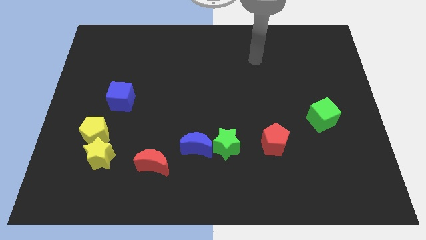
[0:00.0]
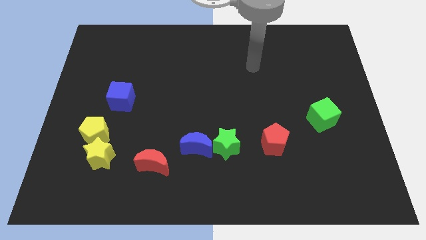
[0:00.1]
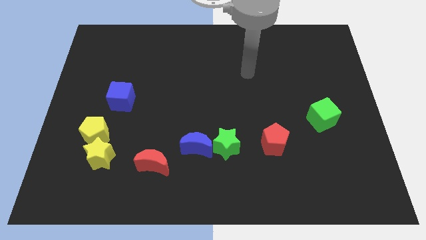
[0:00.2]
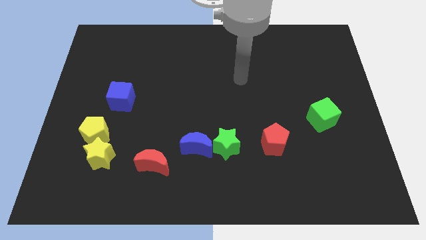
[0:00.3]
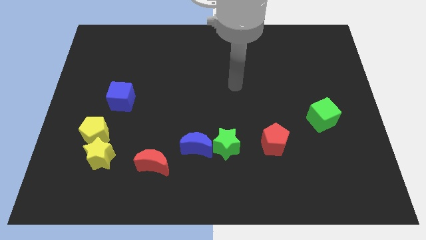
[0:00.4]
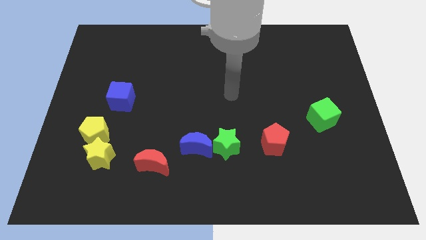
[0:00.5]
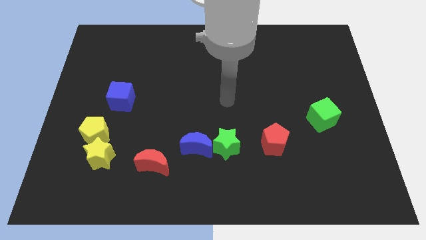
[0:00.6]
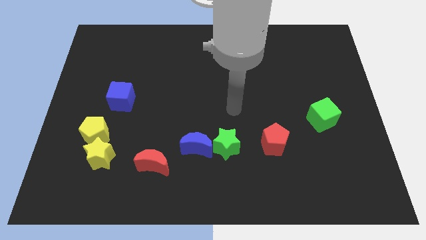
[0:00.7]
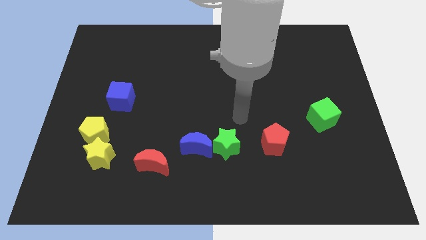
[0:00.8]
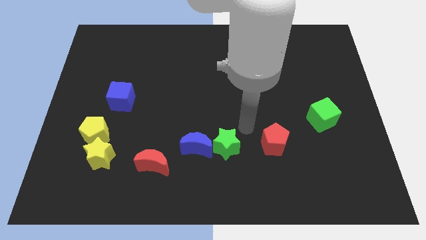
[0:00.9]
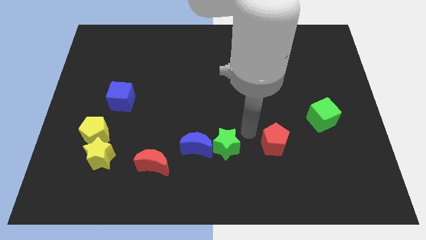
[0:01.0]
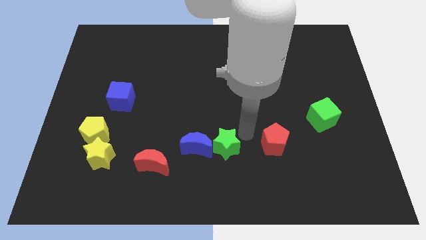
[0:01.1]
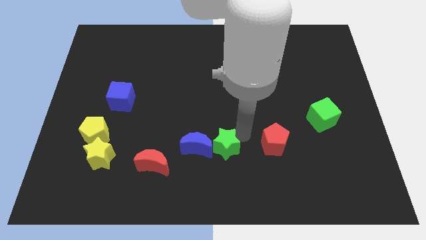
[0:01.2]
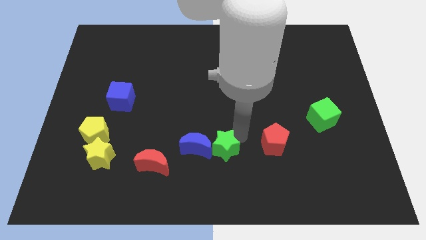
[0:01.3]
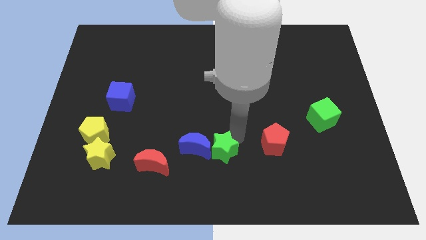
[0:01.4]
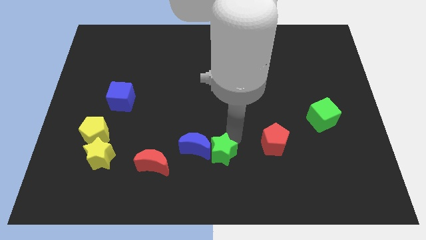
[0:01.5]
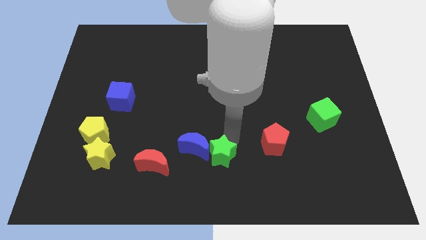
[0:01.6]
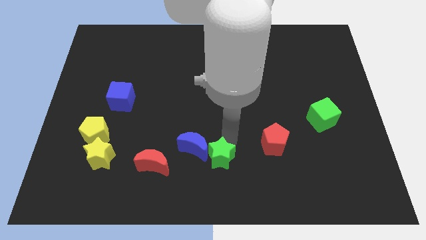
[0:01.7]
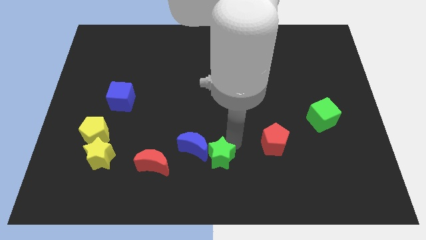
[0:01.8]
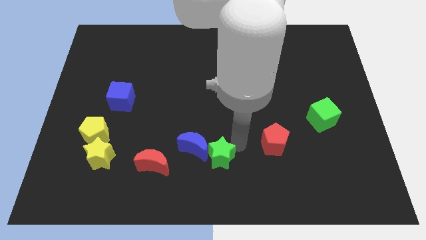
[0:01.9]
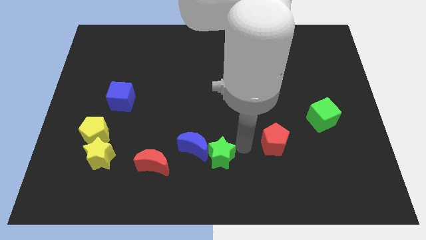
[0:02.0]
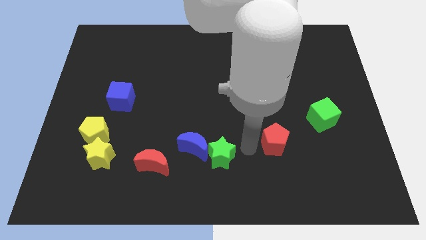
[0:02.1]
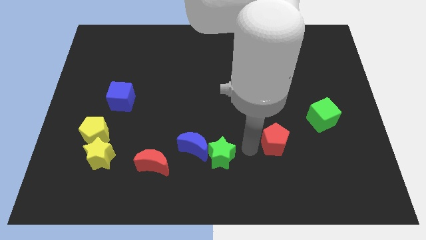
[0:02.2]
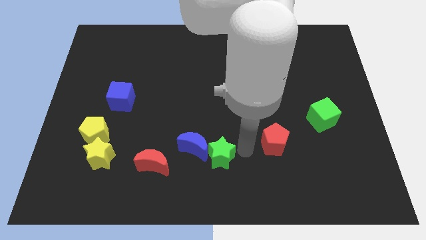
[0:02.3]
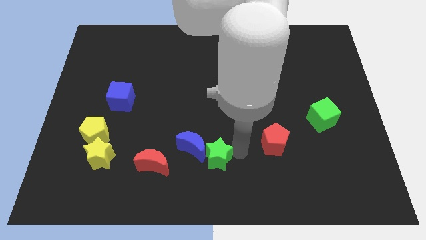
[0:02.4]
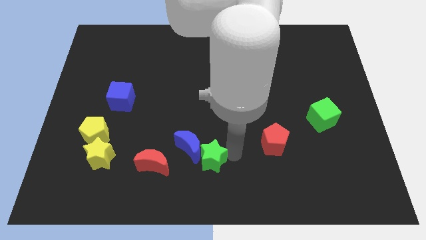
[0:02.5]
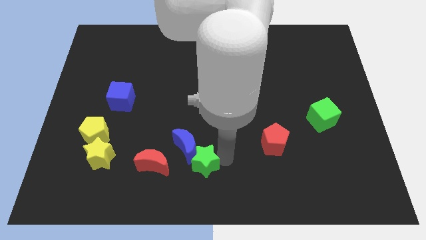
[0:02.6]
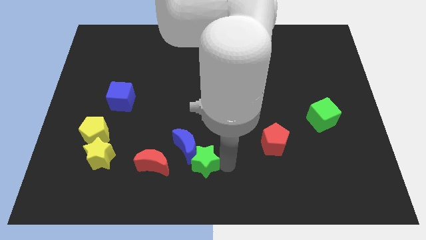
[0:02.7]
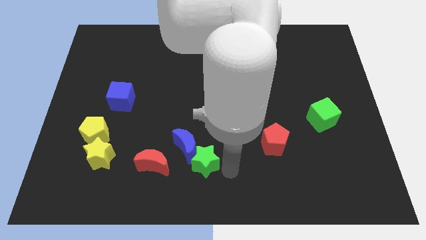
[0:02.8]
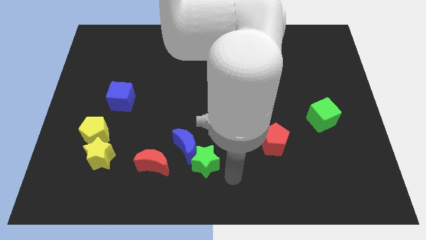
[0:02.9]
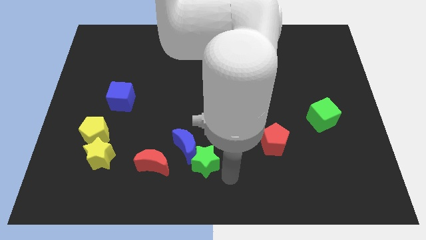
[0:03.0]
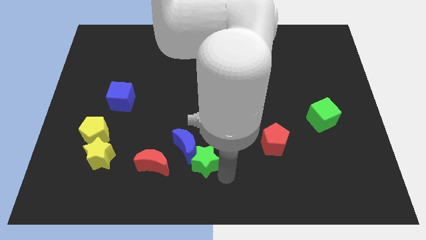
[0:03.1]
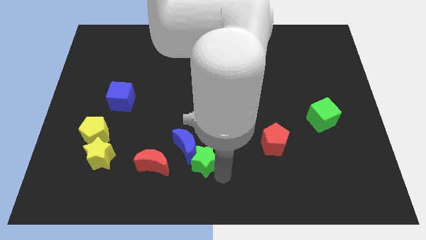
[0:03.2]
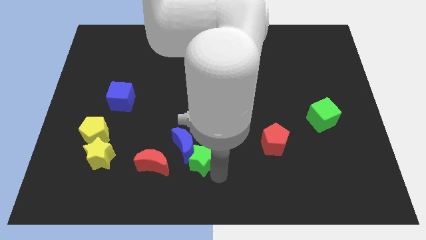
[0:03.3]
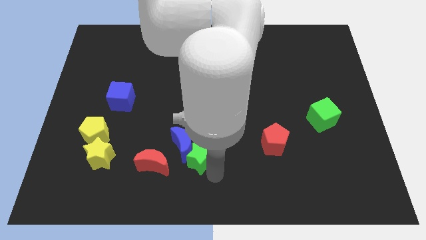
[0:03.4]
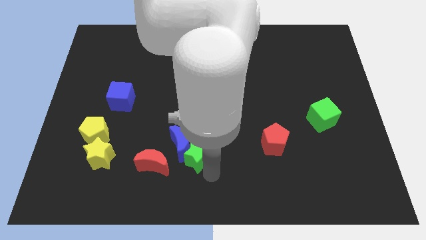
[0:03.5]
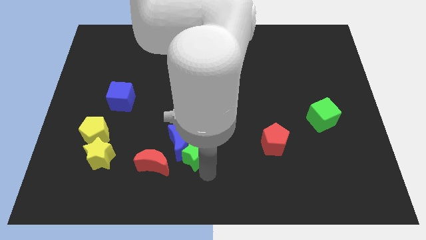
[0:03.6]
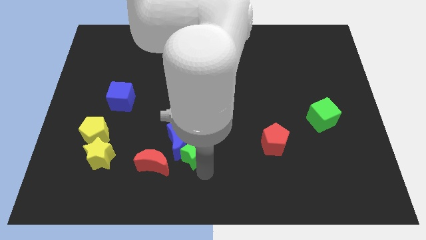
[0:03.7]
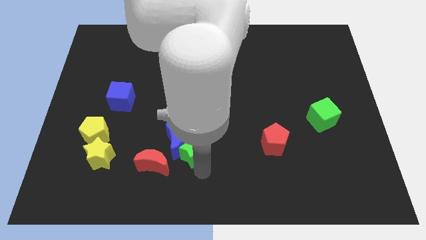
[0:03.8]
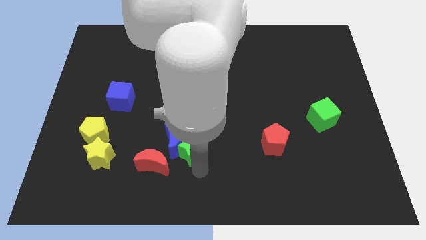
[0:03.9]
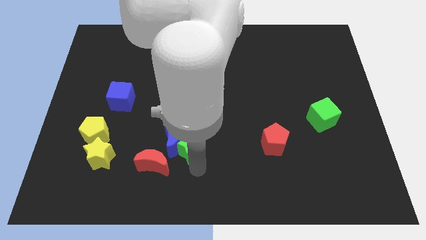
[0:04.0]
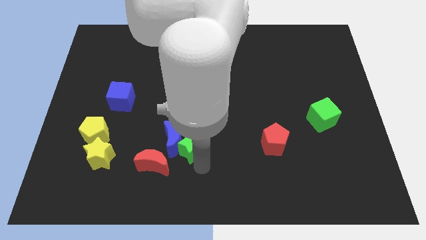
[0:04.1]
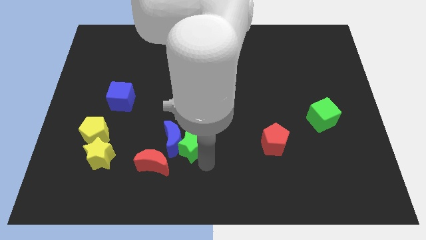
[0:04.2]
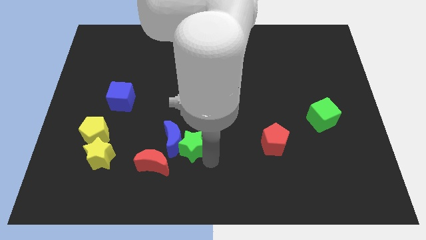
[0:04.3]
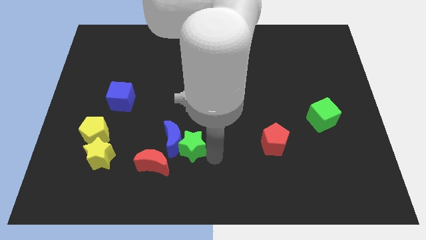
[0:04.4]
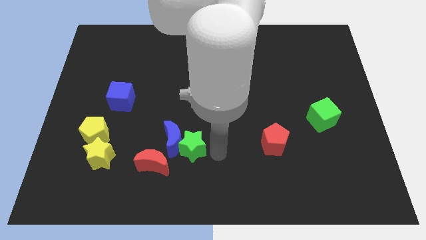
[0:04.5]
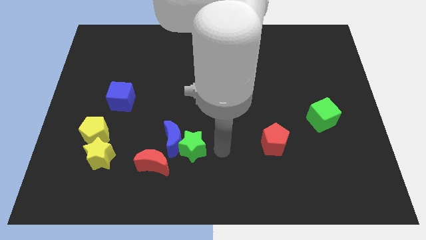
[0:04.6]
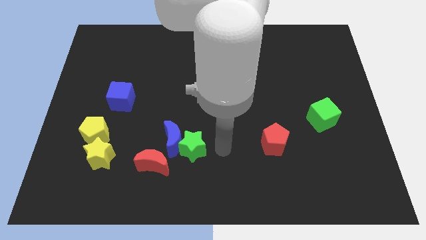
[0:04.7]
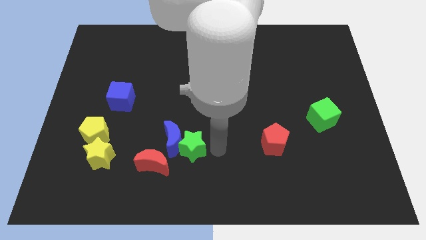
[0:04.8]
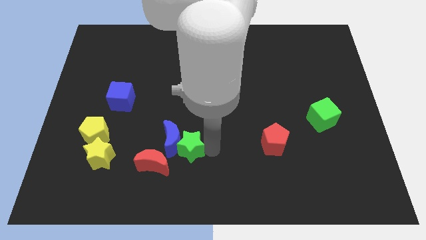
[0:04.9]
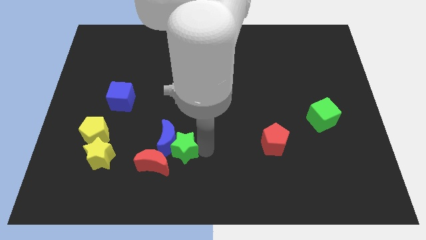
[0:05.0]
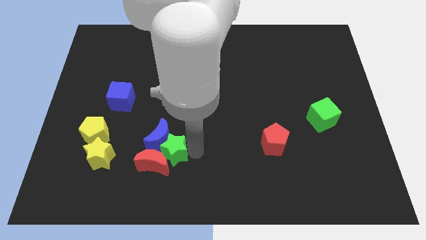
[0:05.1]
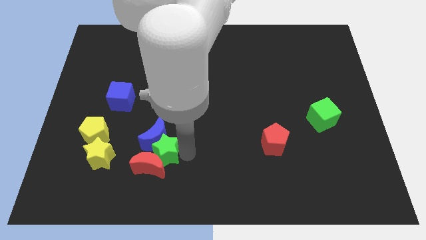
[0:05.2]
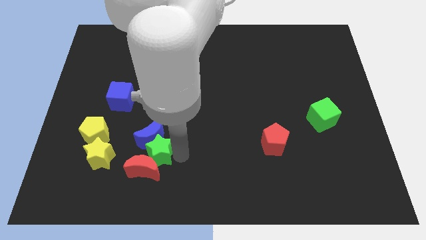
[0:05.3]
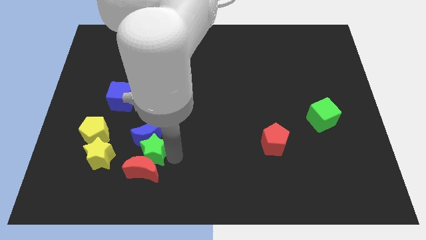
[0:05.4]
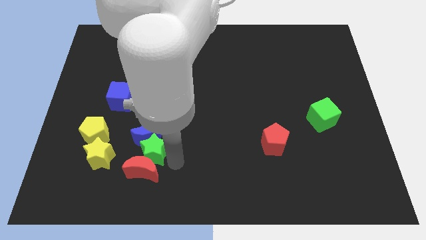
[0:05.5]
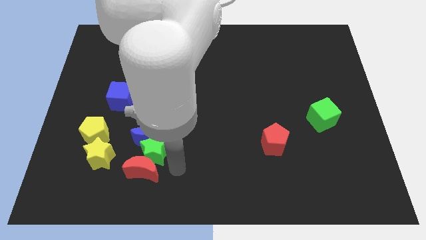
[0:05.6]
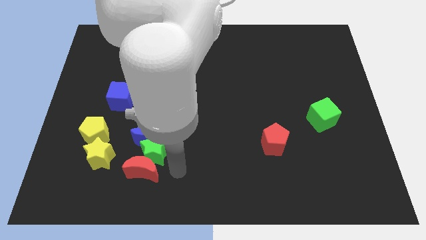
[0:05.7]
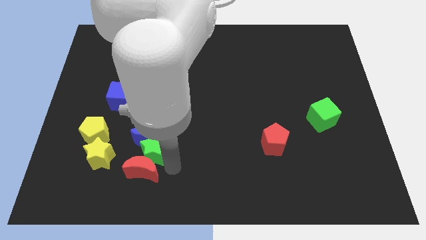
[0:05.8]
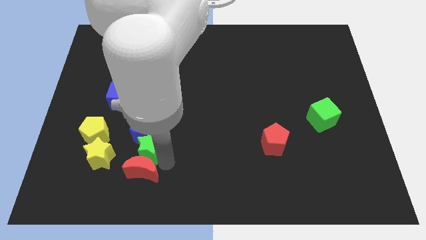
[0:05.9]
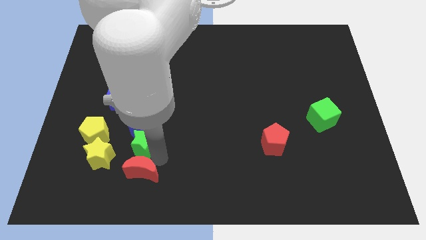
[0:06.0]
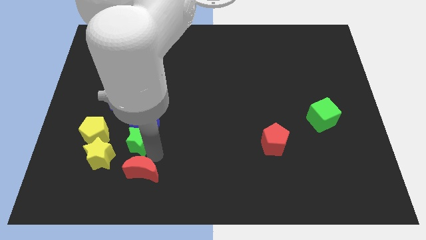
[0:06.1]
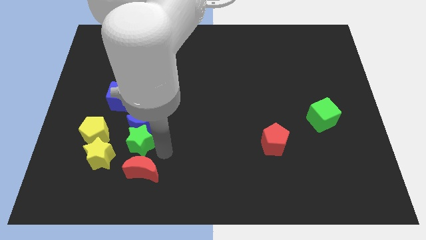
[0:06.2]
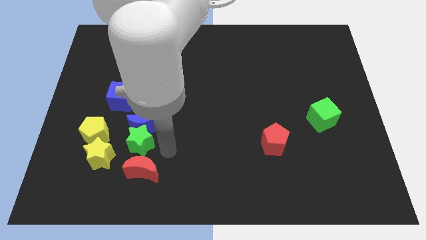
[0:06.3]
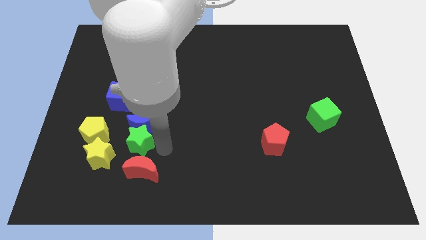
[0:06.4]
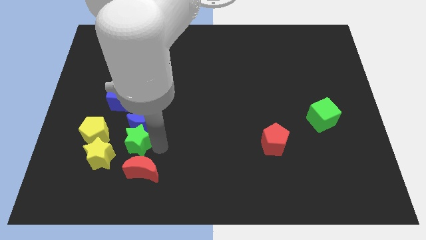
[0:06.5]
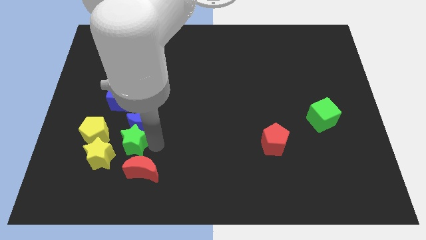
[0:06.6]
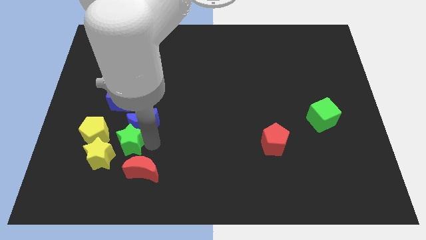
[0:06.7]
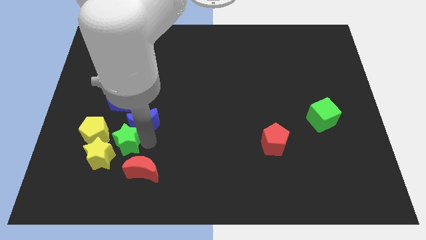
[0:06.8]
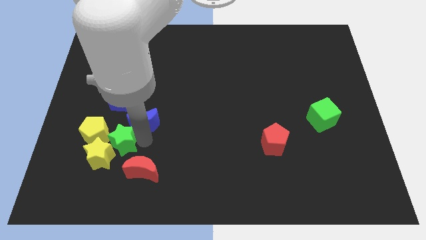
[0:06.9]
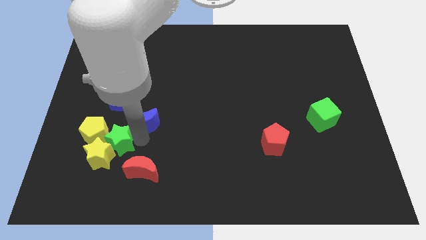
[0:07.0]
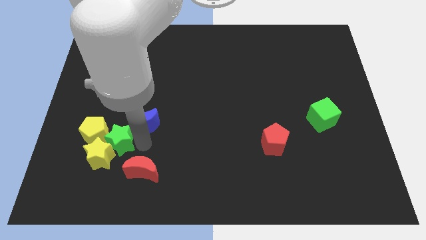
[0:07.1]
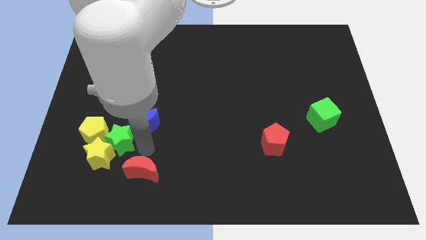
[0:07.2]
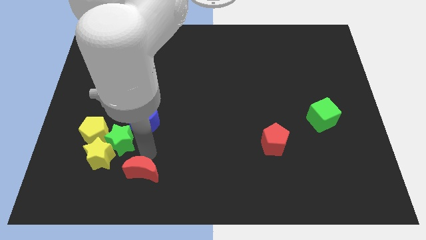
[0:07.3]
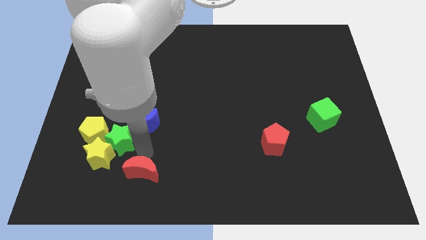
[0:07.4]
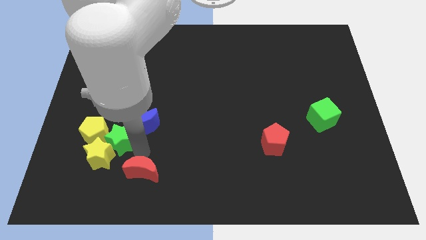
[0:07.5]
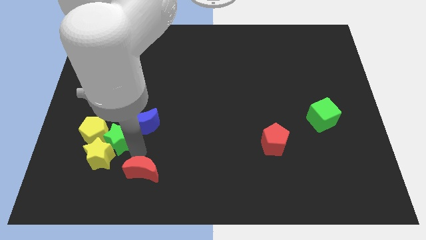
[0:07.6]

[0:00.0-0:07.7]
slide the green star close to the yellow pentagon

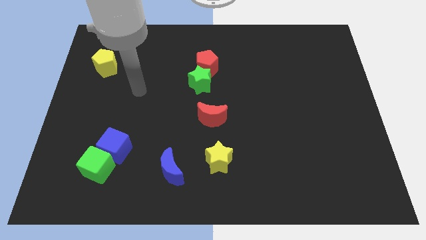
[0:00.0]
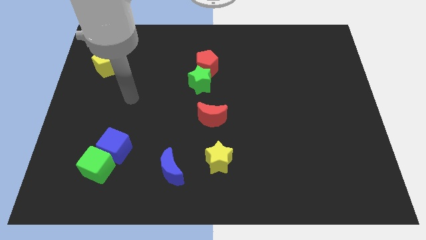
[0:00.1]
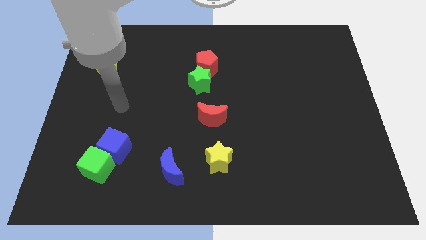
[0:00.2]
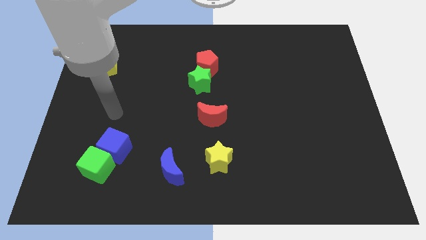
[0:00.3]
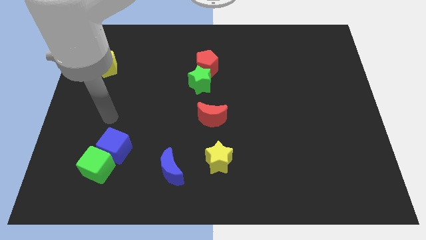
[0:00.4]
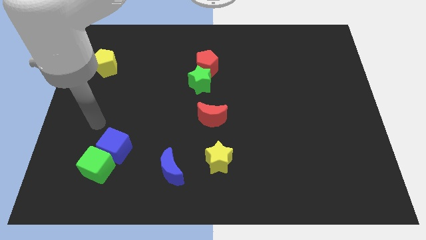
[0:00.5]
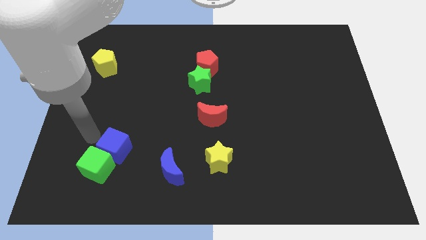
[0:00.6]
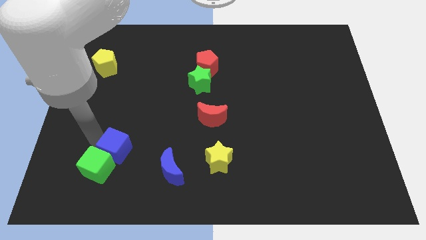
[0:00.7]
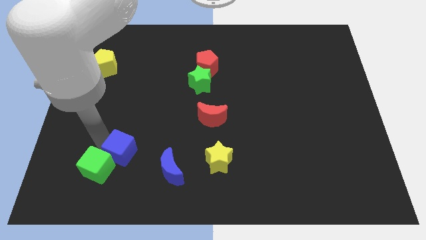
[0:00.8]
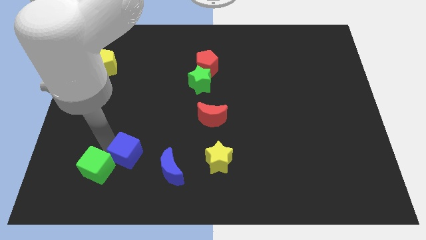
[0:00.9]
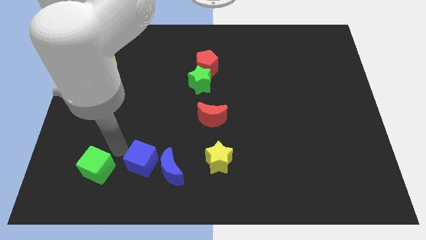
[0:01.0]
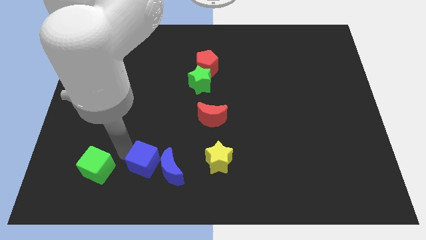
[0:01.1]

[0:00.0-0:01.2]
put the blue cube next to the blue moon
